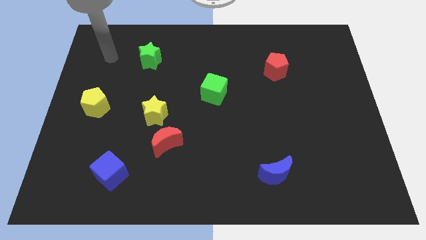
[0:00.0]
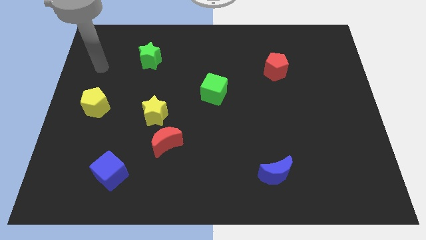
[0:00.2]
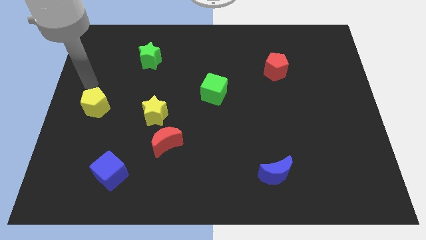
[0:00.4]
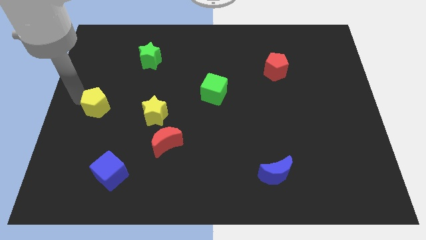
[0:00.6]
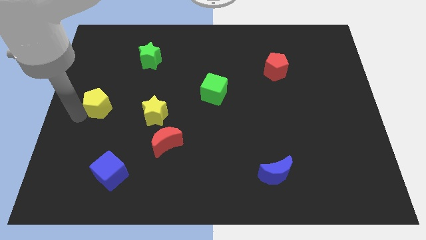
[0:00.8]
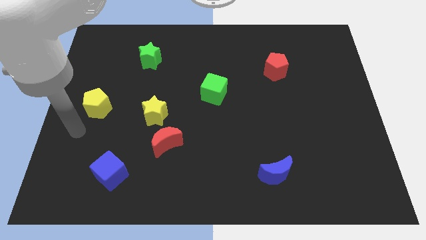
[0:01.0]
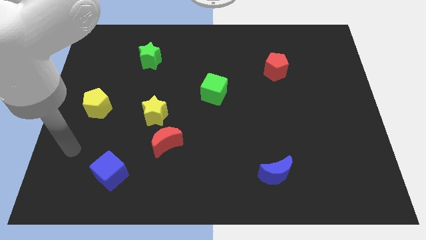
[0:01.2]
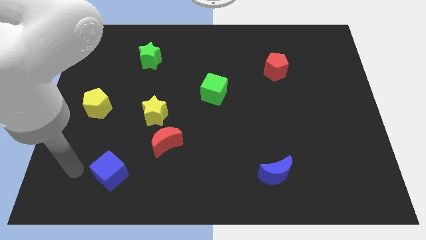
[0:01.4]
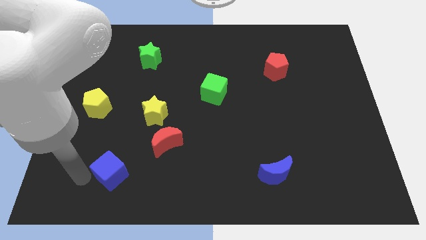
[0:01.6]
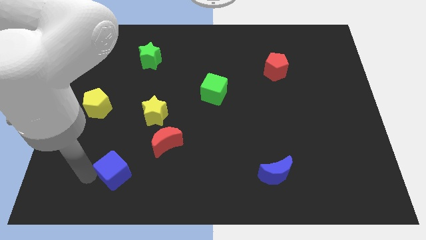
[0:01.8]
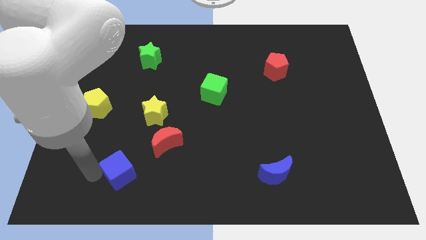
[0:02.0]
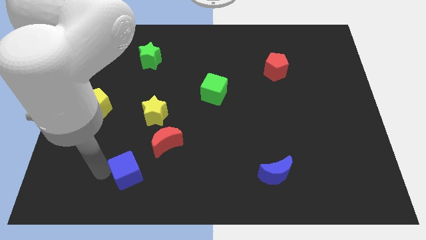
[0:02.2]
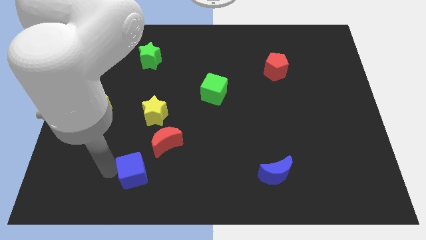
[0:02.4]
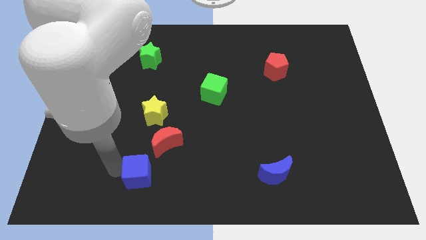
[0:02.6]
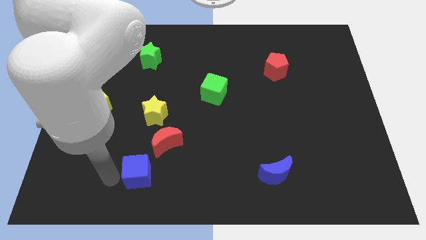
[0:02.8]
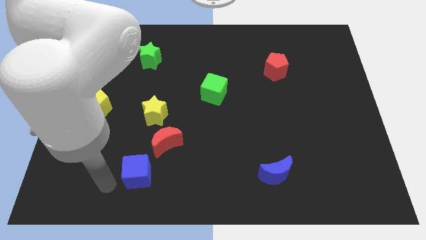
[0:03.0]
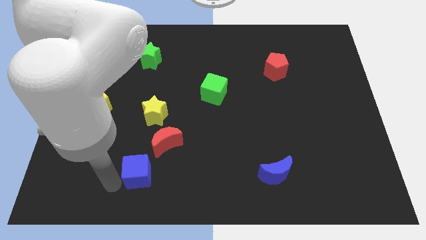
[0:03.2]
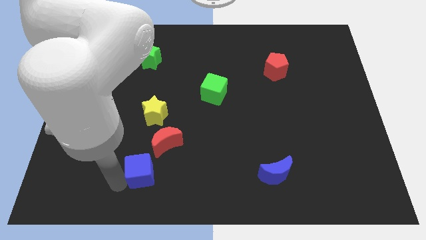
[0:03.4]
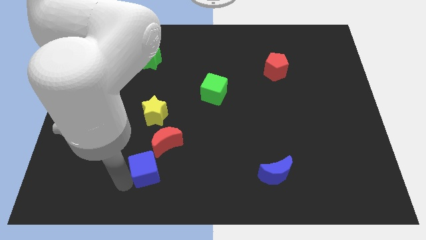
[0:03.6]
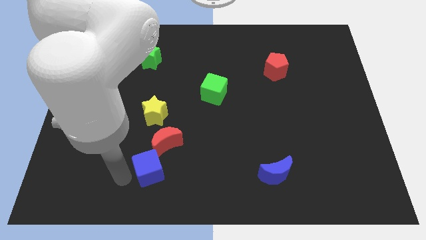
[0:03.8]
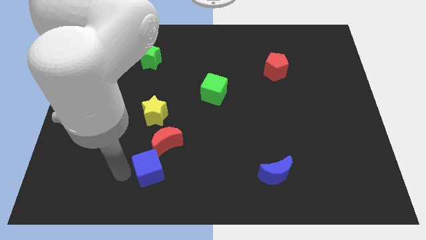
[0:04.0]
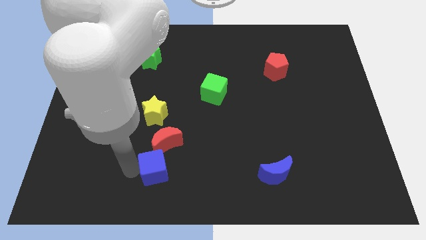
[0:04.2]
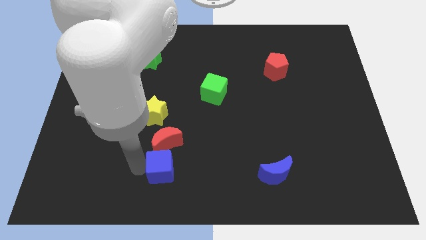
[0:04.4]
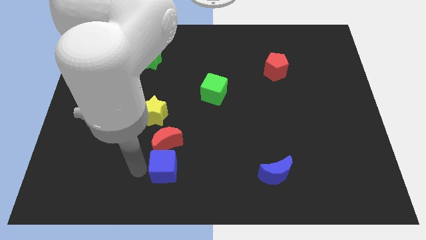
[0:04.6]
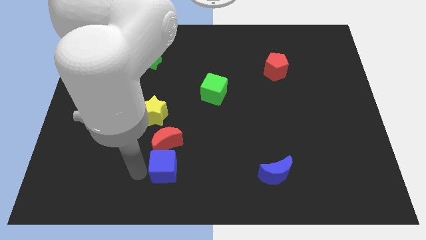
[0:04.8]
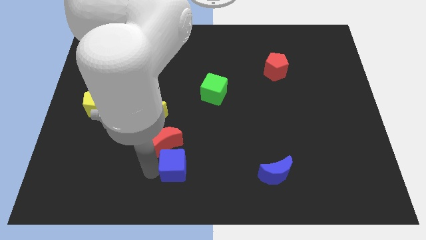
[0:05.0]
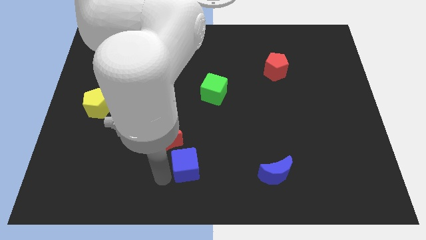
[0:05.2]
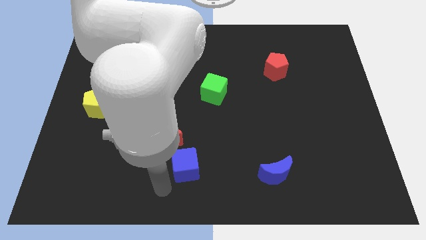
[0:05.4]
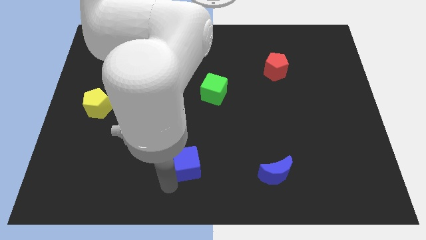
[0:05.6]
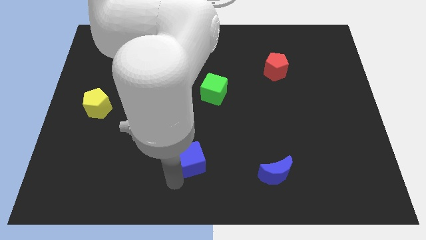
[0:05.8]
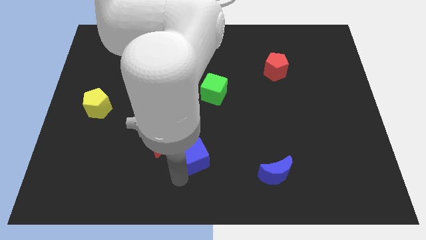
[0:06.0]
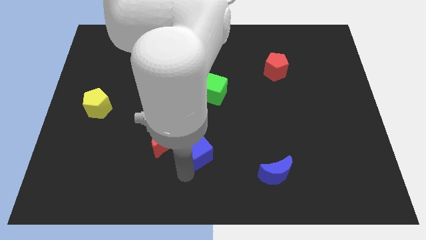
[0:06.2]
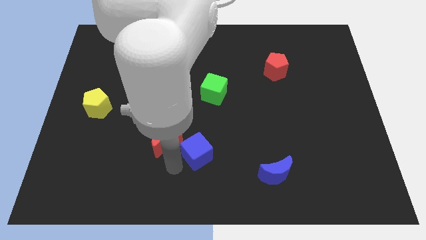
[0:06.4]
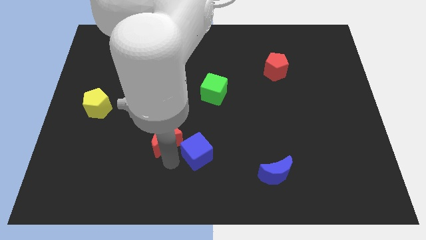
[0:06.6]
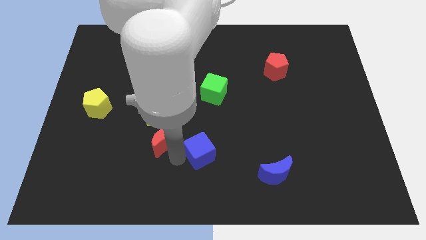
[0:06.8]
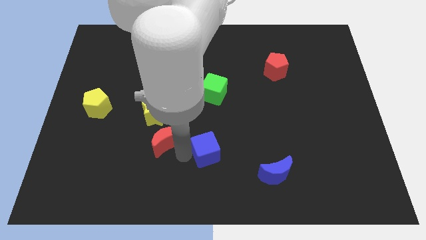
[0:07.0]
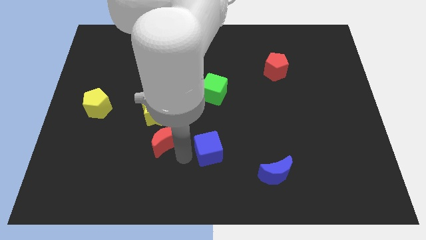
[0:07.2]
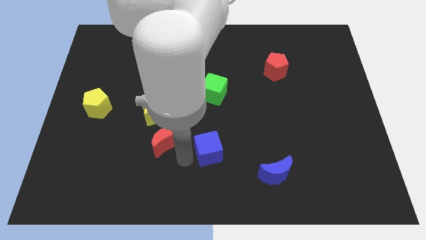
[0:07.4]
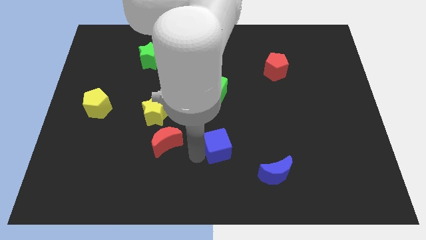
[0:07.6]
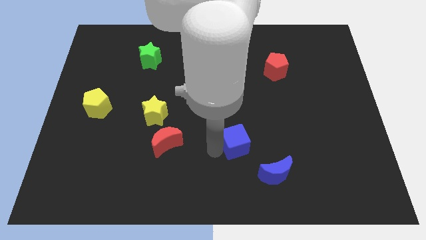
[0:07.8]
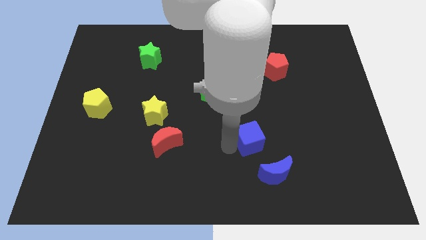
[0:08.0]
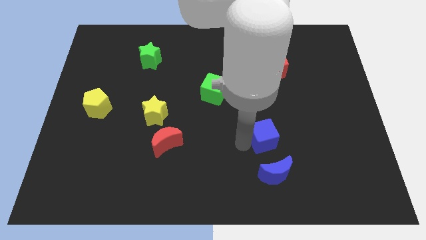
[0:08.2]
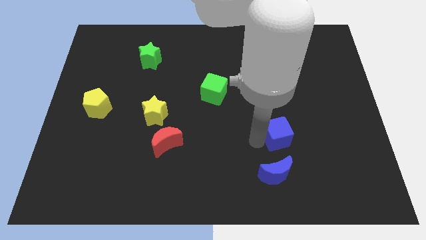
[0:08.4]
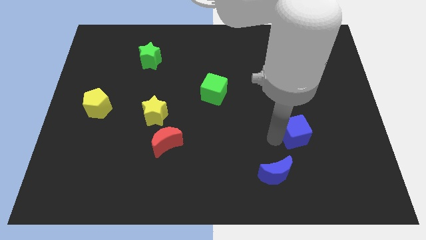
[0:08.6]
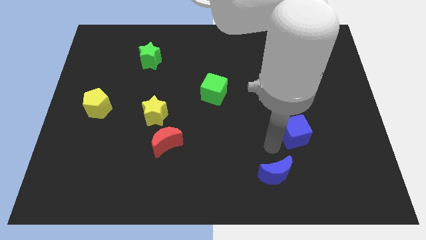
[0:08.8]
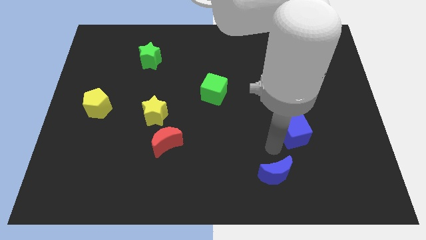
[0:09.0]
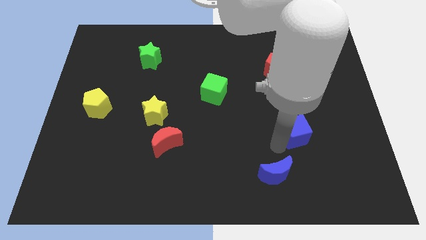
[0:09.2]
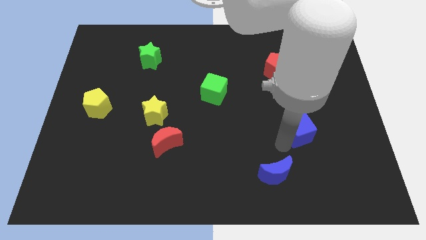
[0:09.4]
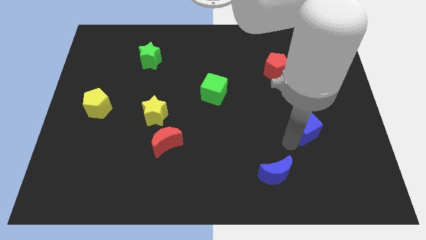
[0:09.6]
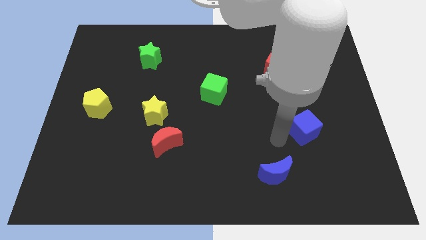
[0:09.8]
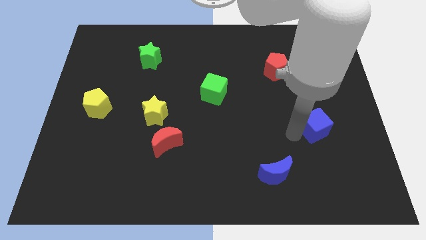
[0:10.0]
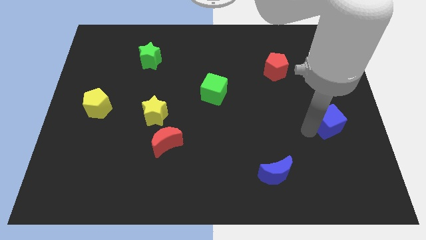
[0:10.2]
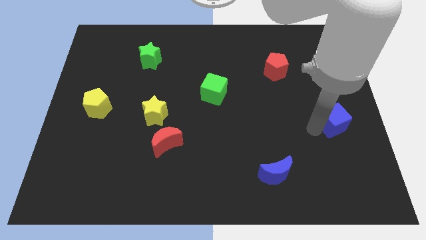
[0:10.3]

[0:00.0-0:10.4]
slide the blue cube to the right side
